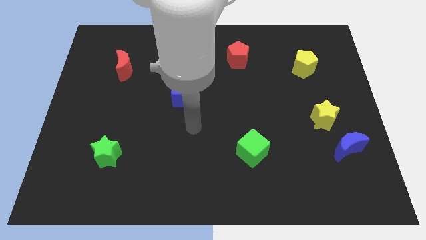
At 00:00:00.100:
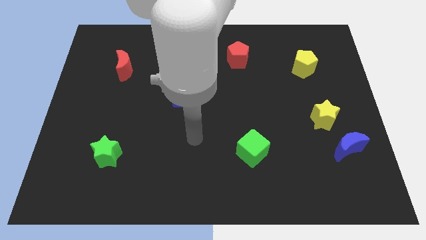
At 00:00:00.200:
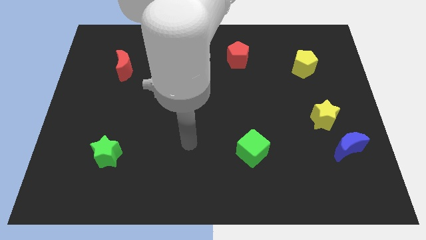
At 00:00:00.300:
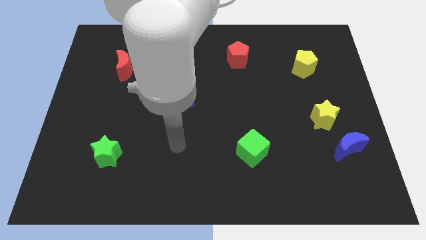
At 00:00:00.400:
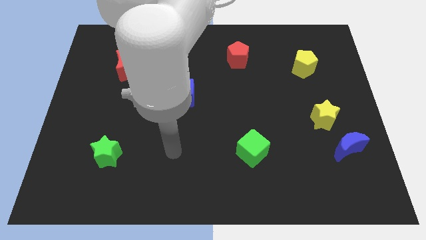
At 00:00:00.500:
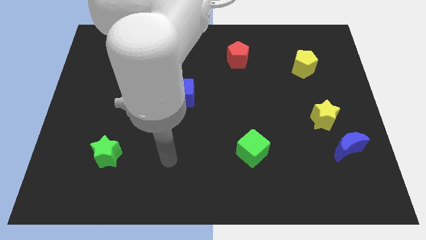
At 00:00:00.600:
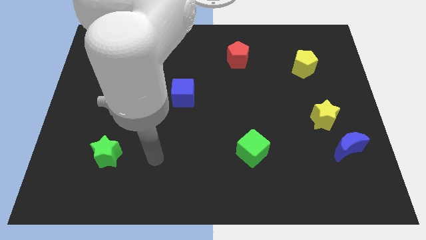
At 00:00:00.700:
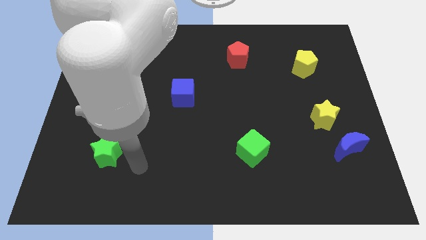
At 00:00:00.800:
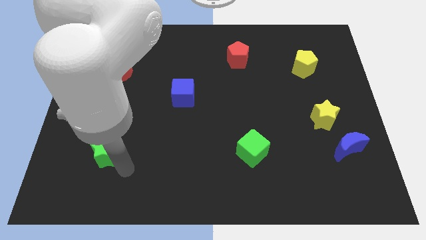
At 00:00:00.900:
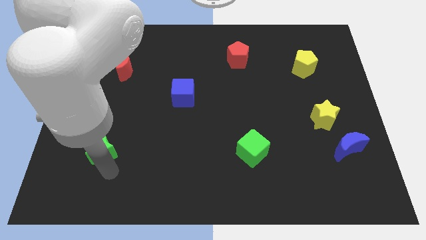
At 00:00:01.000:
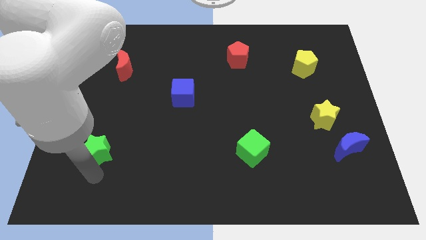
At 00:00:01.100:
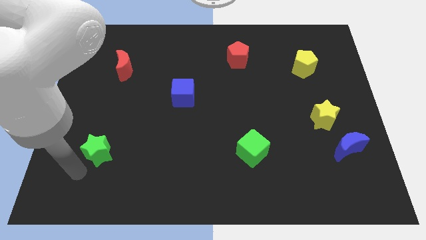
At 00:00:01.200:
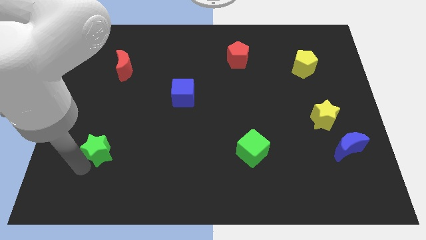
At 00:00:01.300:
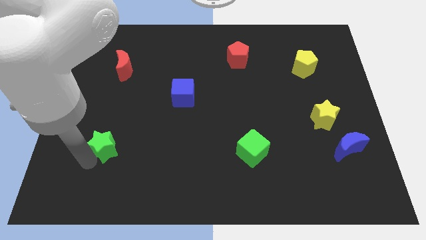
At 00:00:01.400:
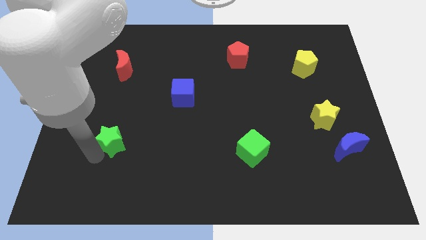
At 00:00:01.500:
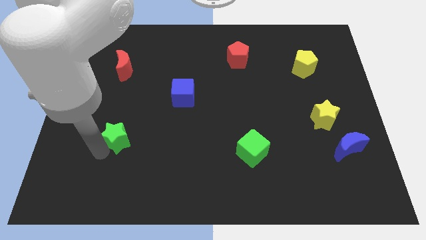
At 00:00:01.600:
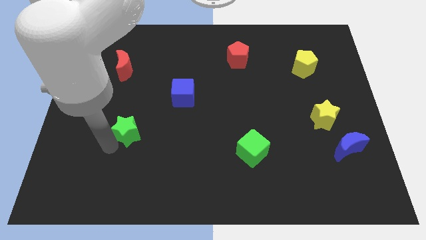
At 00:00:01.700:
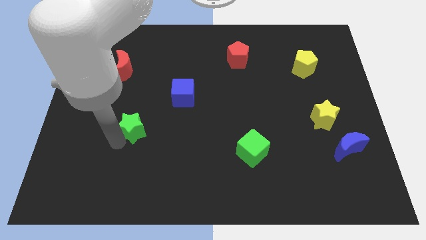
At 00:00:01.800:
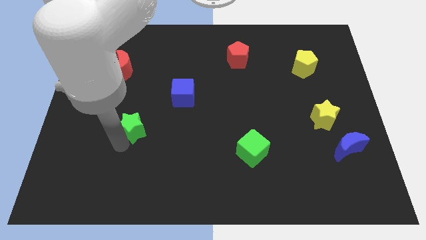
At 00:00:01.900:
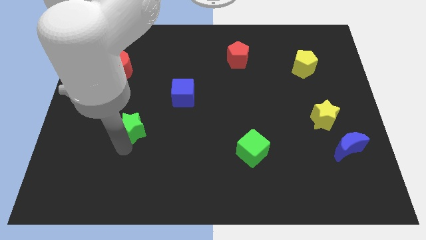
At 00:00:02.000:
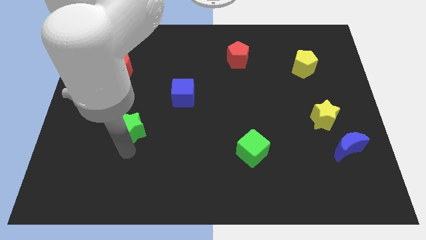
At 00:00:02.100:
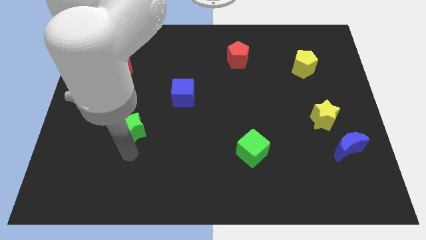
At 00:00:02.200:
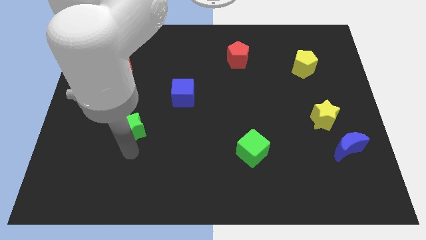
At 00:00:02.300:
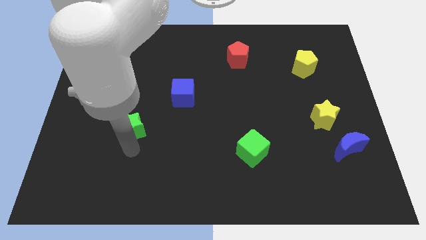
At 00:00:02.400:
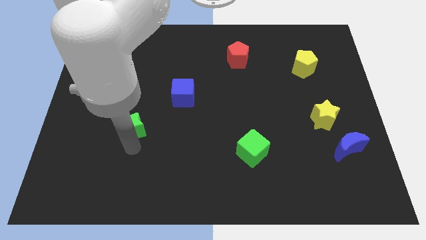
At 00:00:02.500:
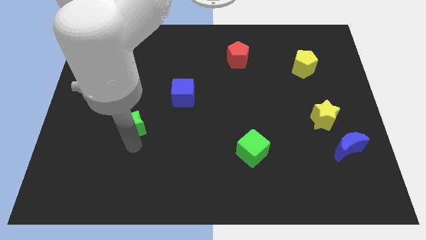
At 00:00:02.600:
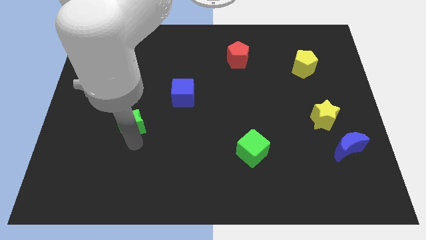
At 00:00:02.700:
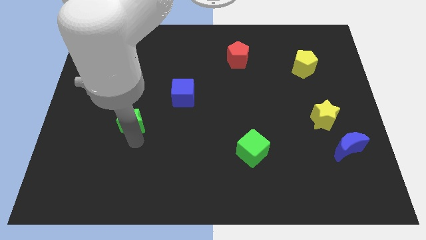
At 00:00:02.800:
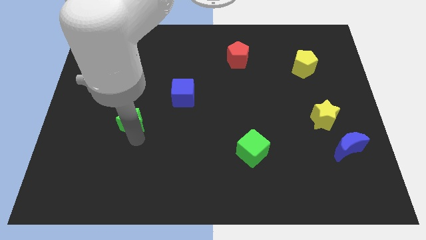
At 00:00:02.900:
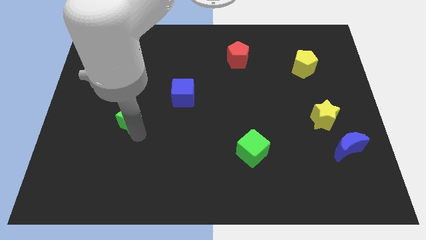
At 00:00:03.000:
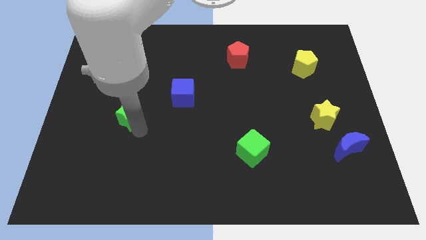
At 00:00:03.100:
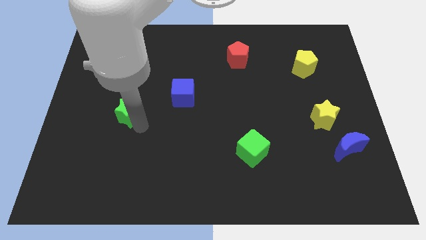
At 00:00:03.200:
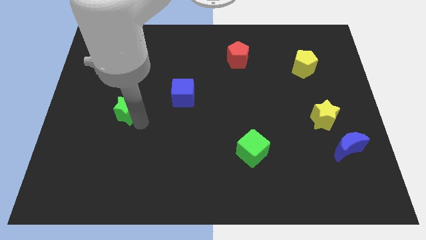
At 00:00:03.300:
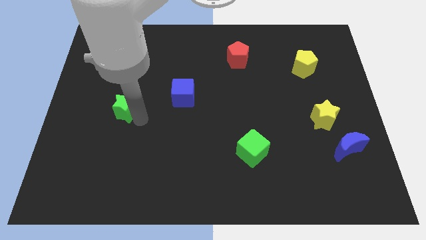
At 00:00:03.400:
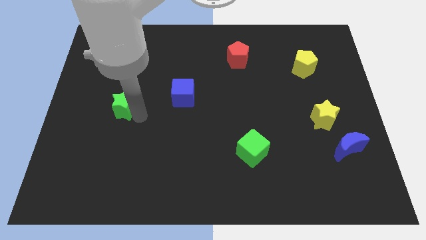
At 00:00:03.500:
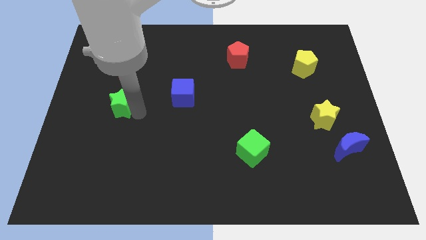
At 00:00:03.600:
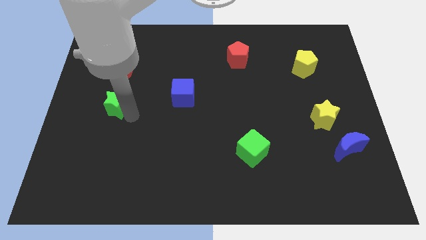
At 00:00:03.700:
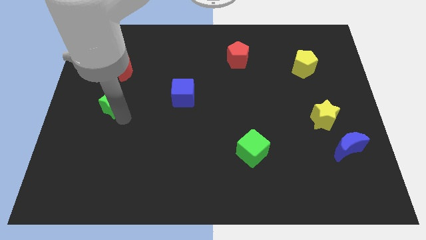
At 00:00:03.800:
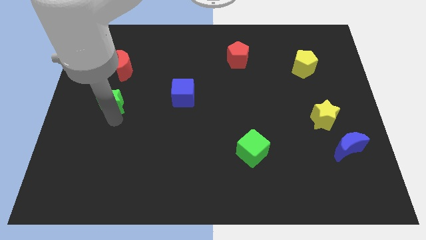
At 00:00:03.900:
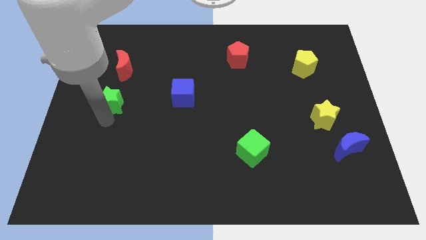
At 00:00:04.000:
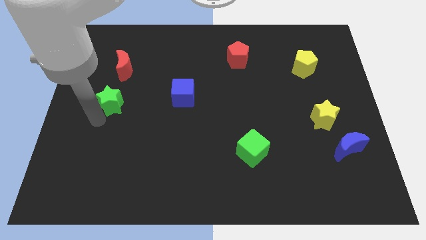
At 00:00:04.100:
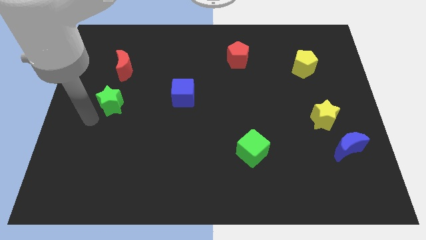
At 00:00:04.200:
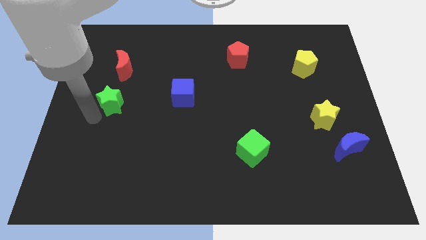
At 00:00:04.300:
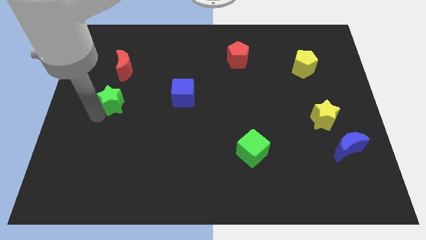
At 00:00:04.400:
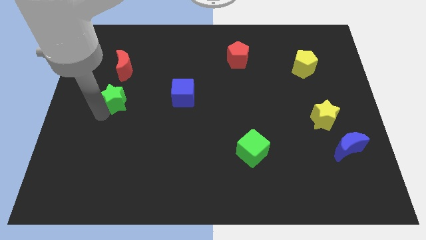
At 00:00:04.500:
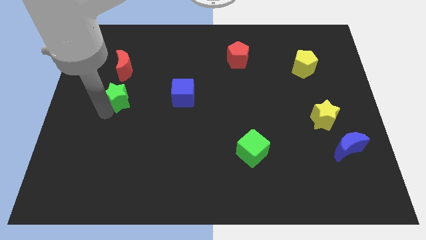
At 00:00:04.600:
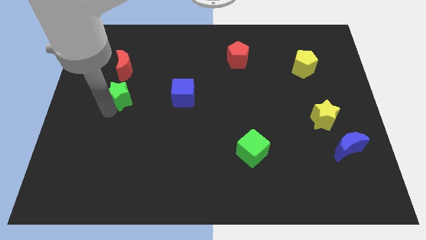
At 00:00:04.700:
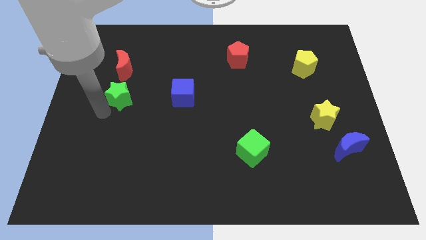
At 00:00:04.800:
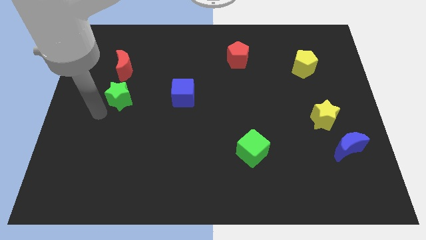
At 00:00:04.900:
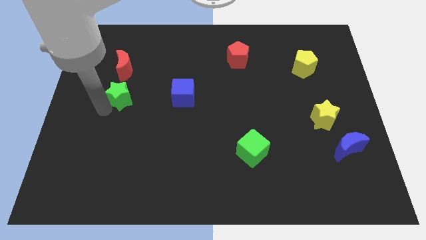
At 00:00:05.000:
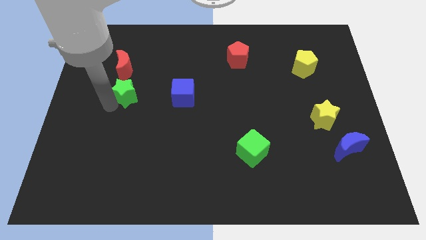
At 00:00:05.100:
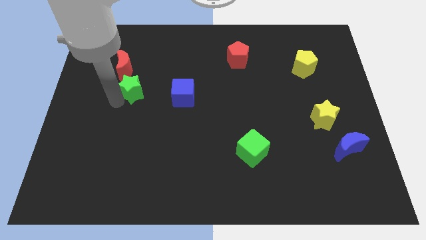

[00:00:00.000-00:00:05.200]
slide the green star to the bottom right side of the red moon

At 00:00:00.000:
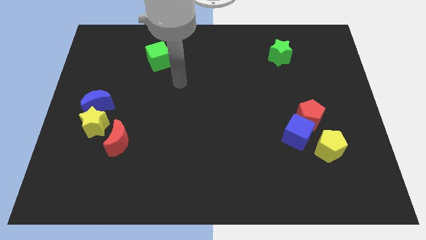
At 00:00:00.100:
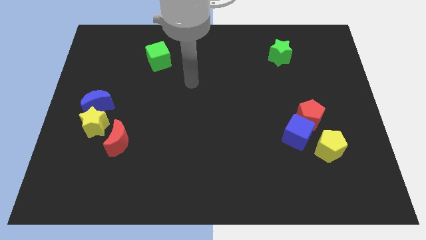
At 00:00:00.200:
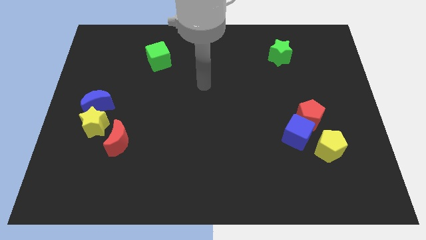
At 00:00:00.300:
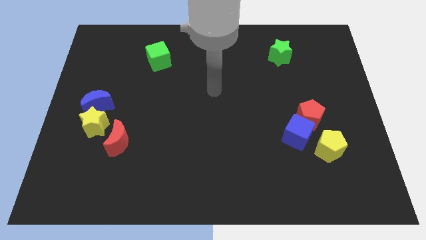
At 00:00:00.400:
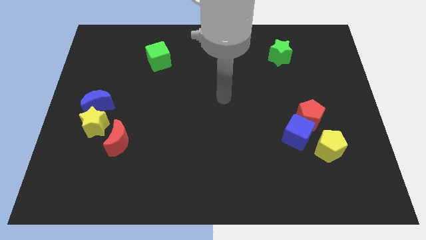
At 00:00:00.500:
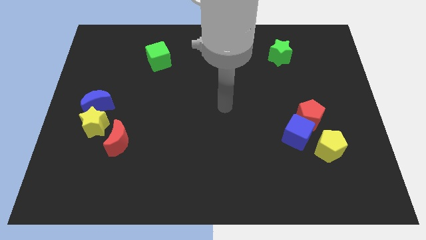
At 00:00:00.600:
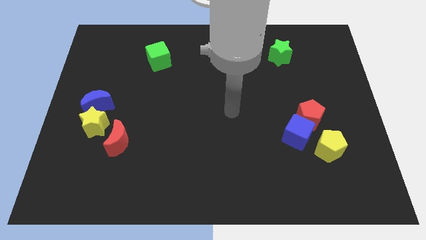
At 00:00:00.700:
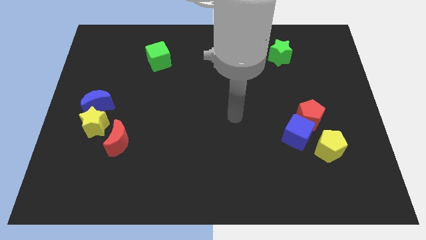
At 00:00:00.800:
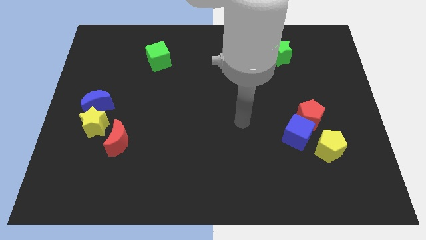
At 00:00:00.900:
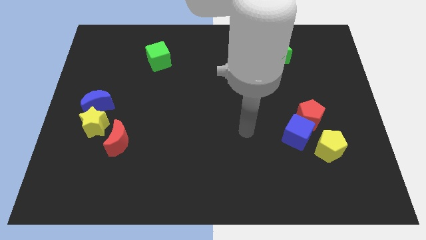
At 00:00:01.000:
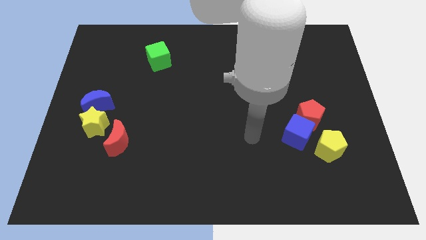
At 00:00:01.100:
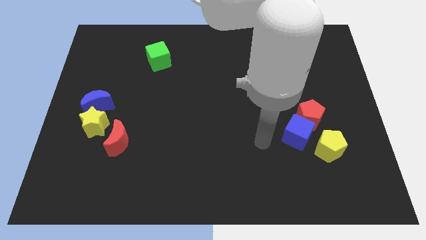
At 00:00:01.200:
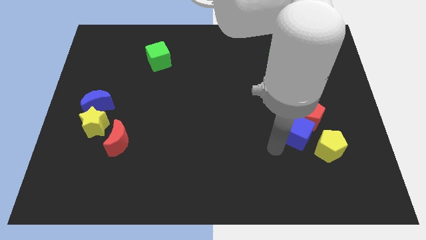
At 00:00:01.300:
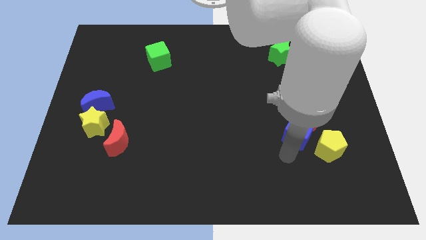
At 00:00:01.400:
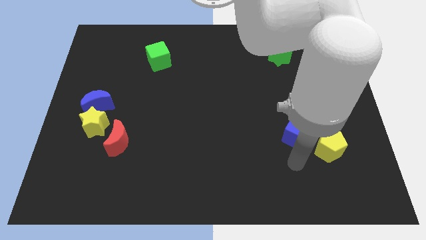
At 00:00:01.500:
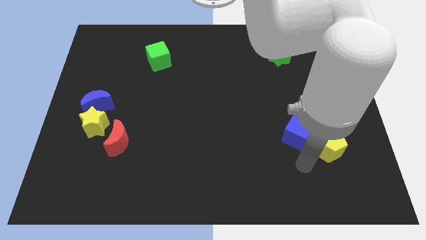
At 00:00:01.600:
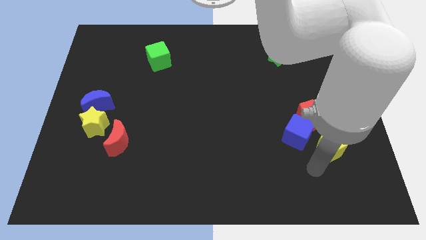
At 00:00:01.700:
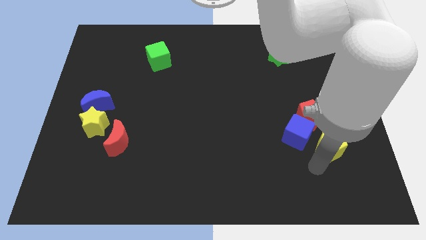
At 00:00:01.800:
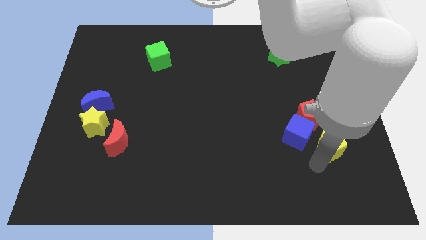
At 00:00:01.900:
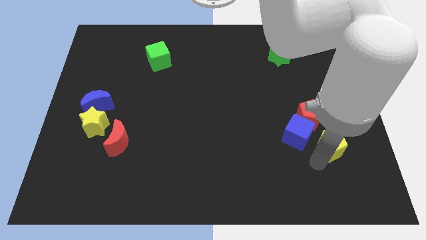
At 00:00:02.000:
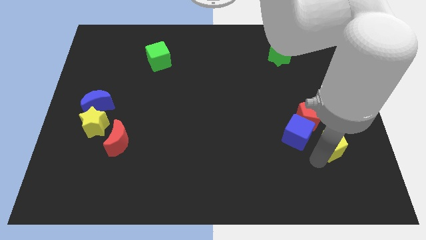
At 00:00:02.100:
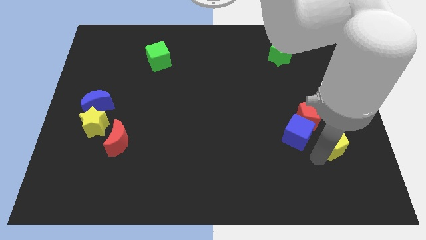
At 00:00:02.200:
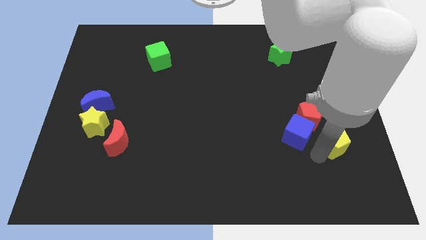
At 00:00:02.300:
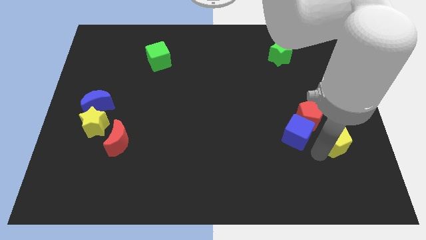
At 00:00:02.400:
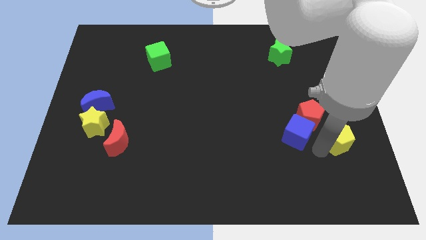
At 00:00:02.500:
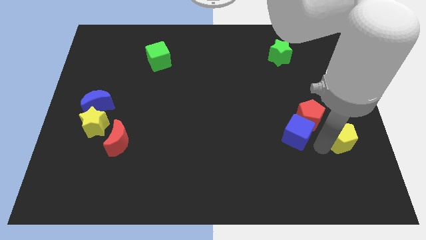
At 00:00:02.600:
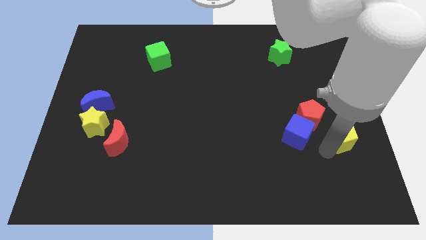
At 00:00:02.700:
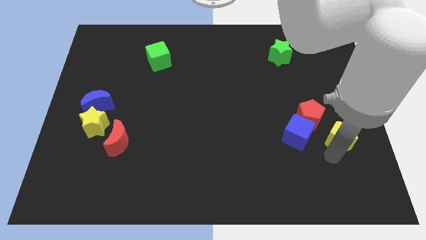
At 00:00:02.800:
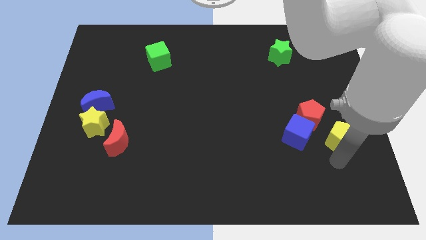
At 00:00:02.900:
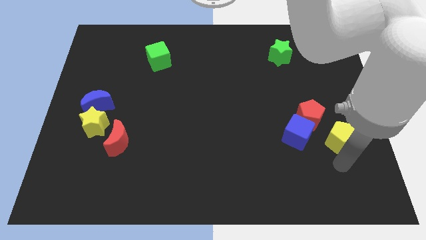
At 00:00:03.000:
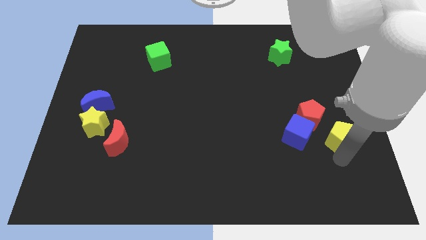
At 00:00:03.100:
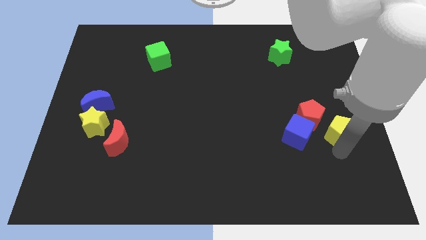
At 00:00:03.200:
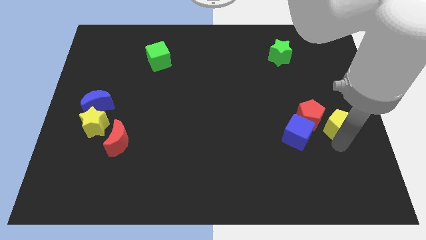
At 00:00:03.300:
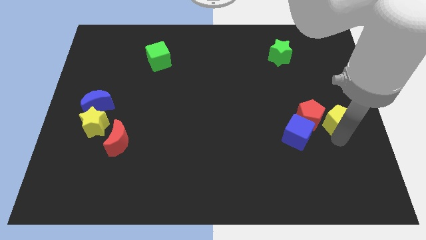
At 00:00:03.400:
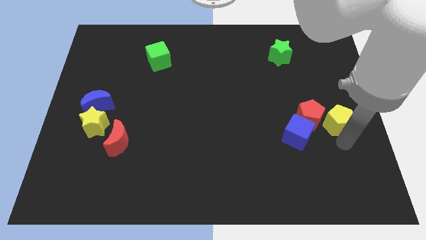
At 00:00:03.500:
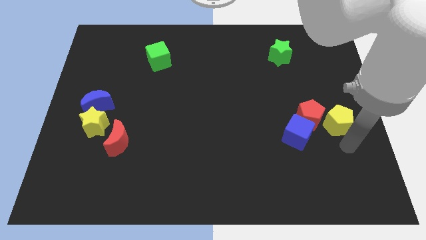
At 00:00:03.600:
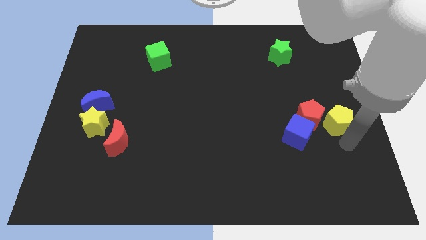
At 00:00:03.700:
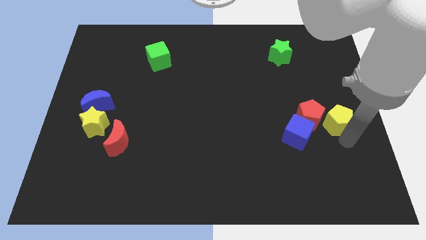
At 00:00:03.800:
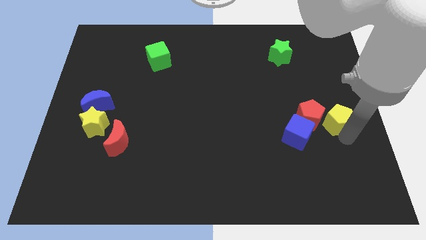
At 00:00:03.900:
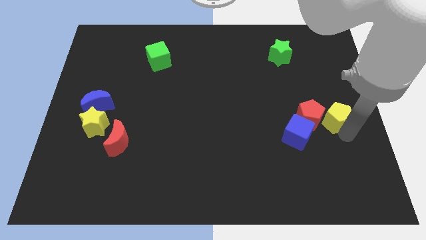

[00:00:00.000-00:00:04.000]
push the yellow pentagon diagonally up and to the right of the red pentagon
